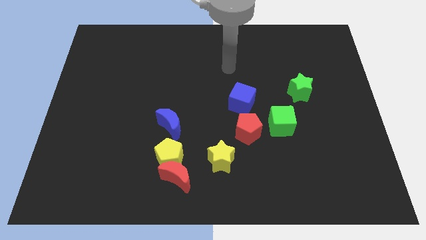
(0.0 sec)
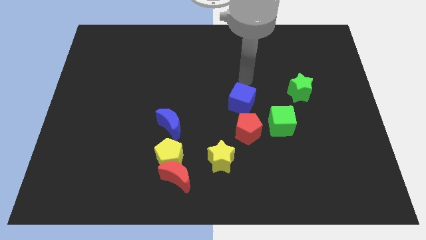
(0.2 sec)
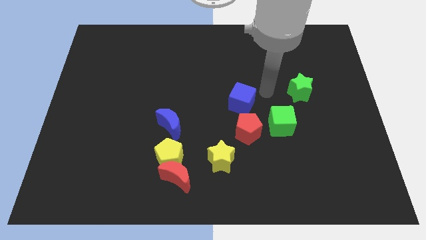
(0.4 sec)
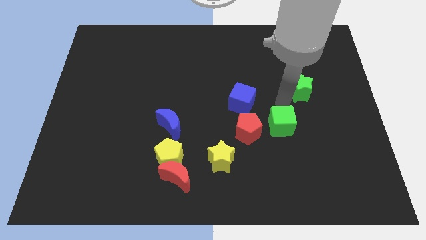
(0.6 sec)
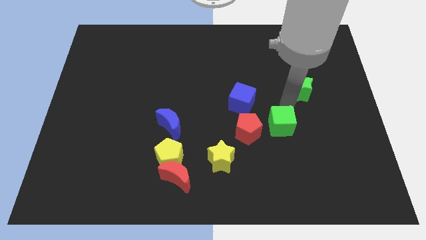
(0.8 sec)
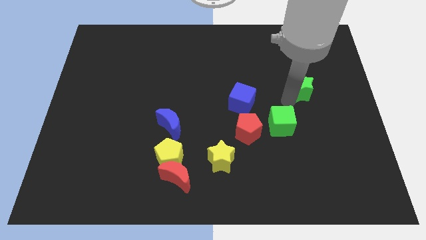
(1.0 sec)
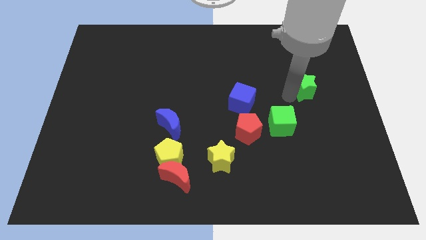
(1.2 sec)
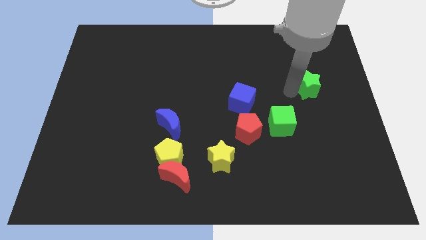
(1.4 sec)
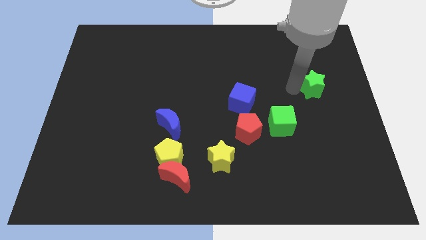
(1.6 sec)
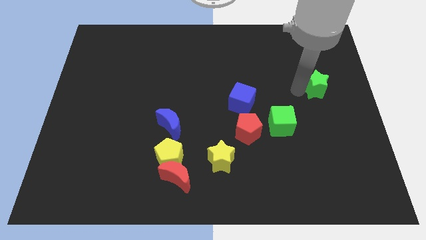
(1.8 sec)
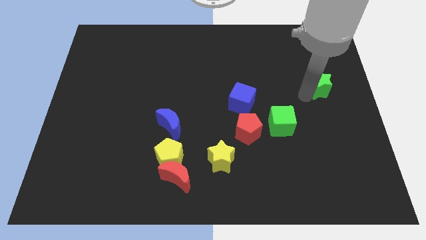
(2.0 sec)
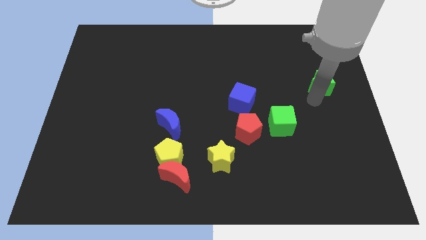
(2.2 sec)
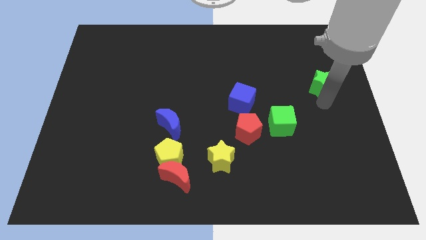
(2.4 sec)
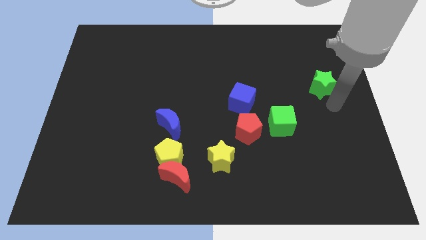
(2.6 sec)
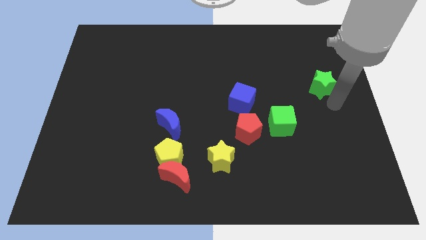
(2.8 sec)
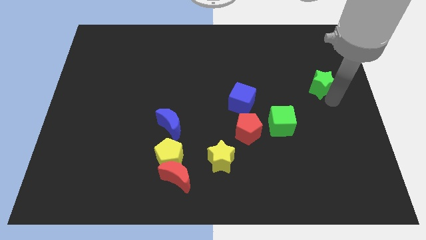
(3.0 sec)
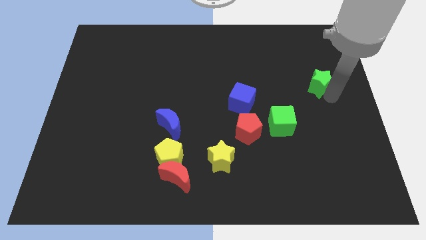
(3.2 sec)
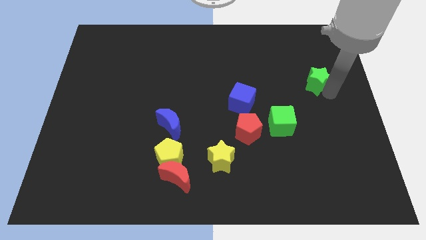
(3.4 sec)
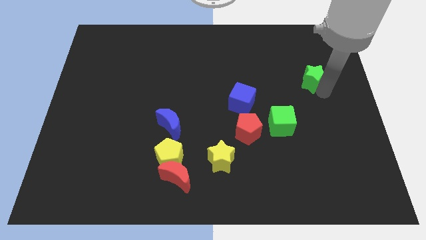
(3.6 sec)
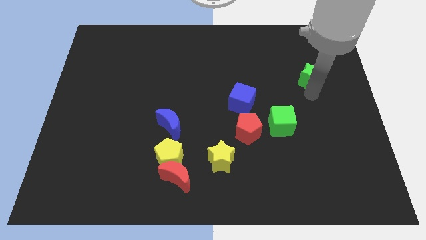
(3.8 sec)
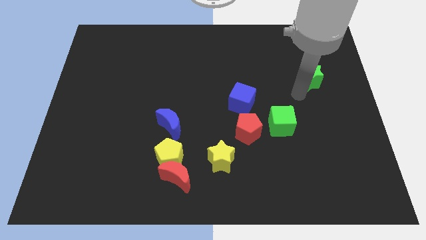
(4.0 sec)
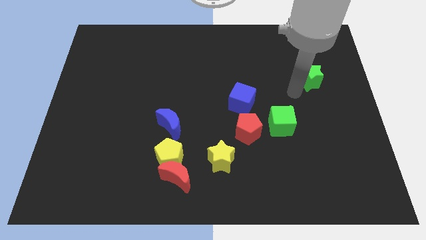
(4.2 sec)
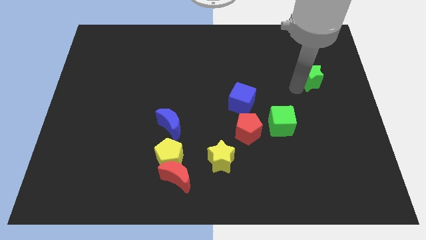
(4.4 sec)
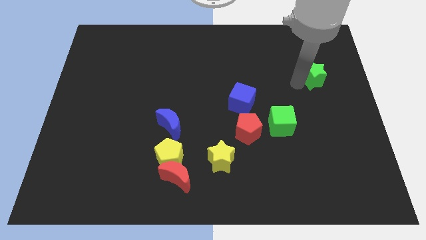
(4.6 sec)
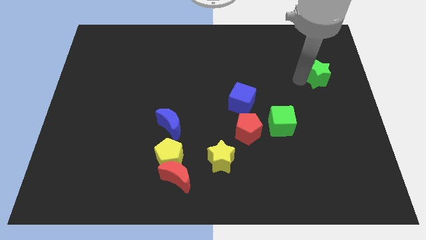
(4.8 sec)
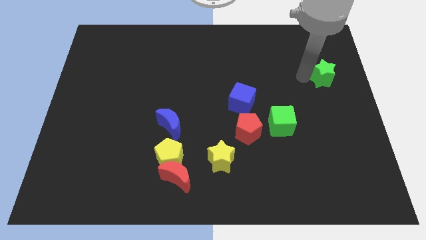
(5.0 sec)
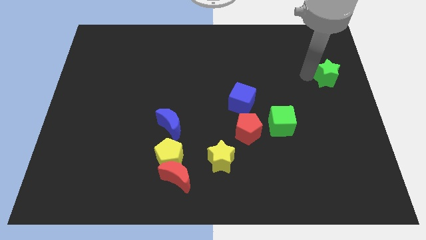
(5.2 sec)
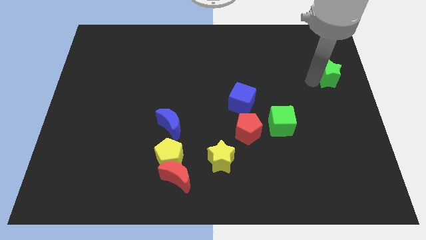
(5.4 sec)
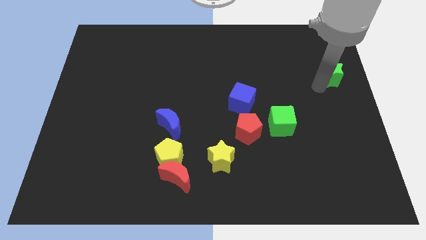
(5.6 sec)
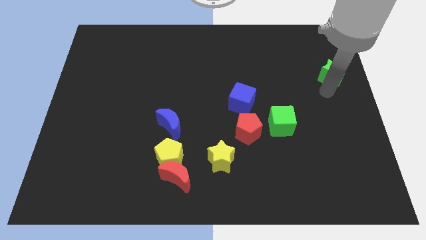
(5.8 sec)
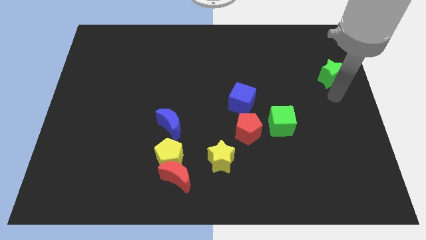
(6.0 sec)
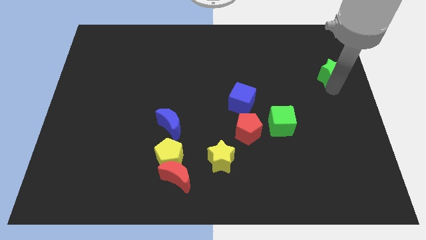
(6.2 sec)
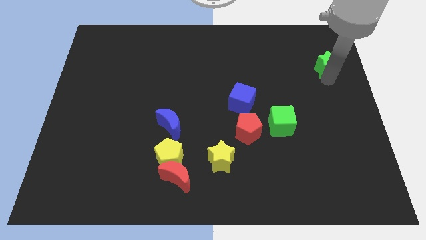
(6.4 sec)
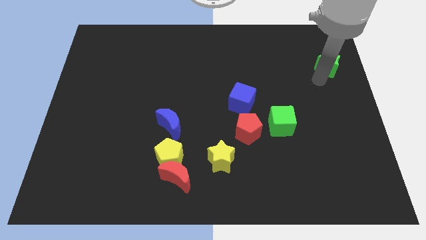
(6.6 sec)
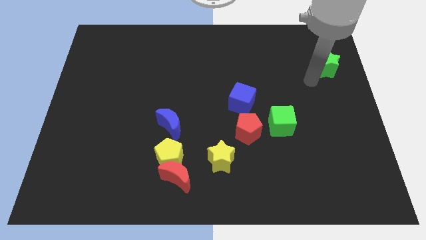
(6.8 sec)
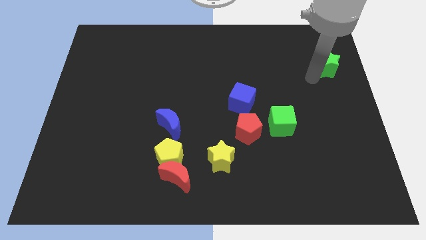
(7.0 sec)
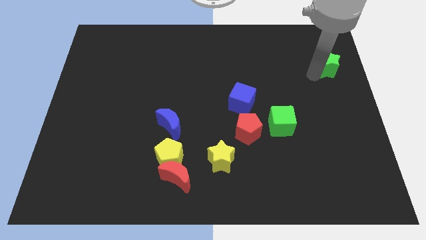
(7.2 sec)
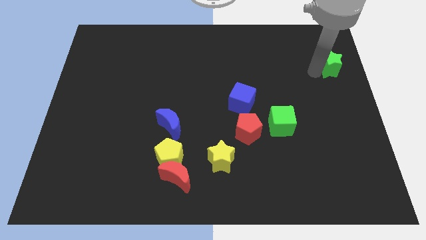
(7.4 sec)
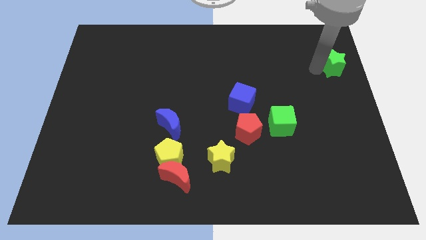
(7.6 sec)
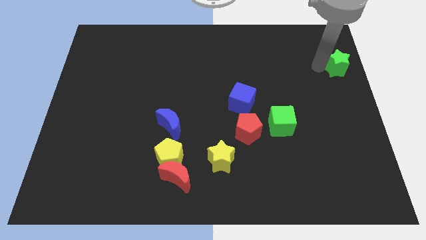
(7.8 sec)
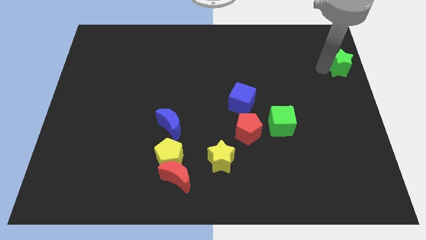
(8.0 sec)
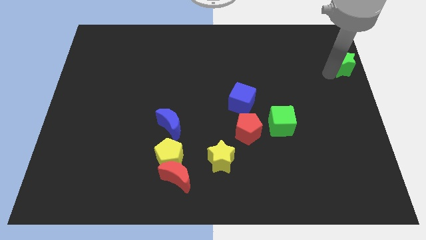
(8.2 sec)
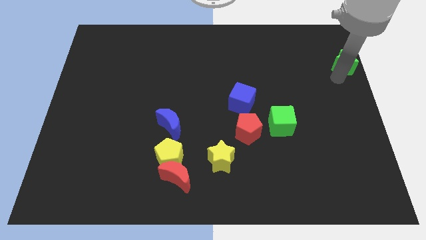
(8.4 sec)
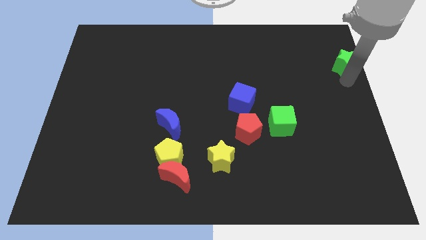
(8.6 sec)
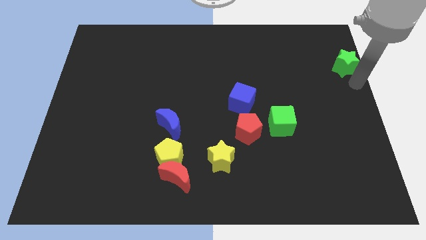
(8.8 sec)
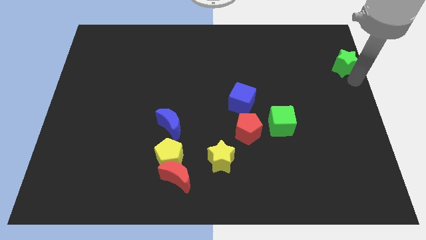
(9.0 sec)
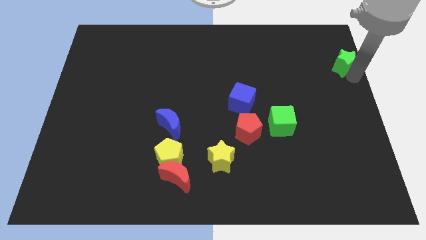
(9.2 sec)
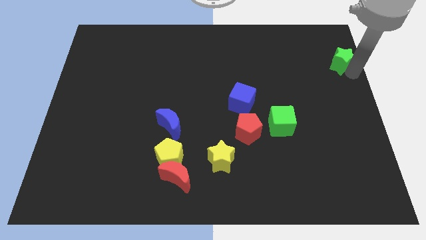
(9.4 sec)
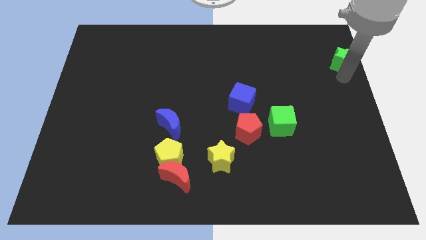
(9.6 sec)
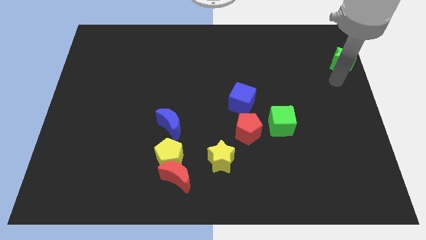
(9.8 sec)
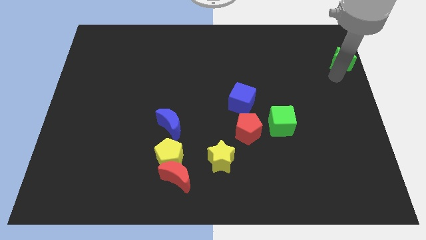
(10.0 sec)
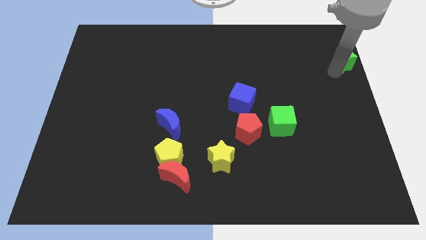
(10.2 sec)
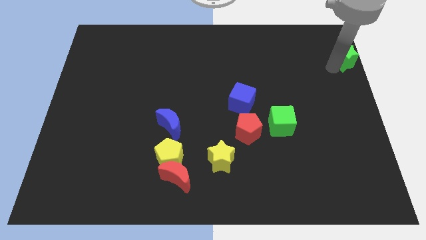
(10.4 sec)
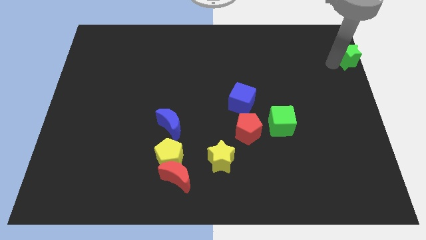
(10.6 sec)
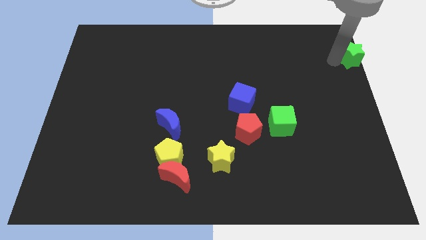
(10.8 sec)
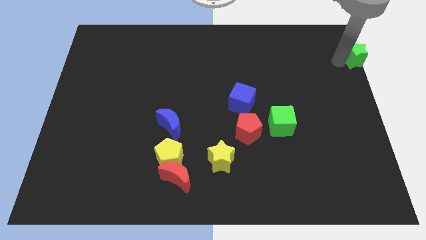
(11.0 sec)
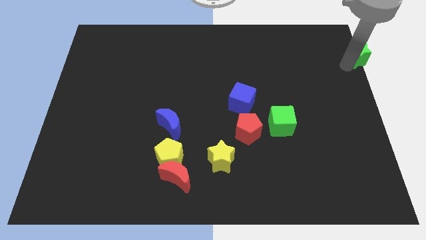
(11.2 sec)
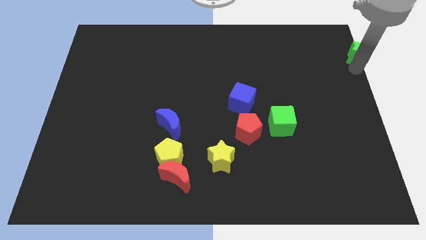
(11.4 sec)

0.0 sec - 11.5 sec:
move the green star to the top right corner

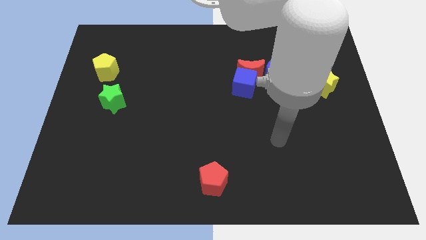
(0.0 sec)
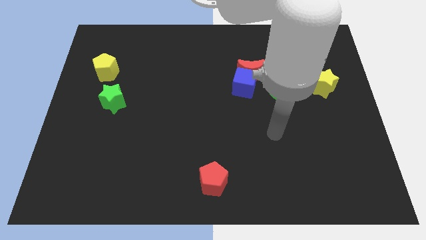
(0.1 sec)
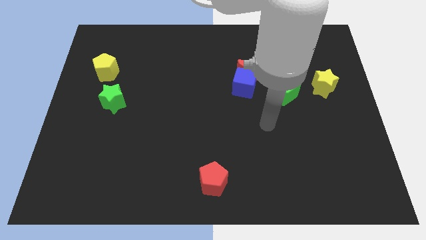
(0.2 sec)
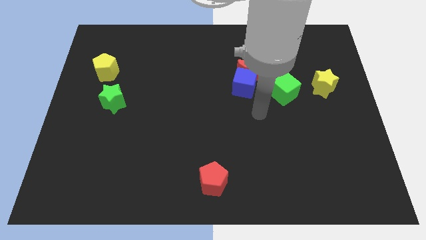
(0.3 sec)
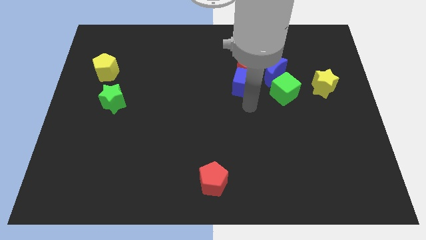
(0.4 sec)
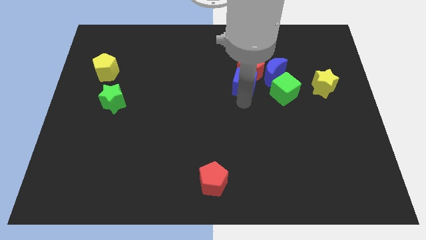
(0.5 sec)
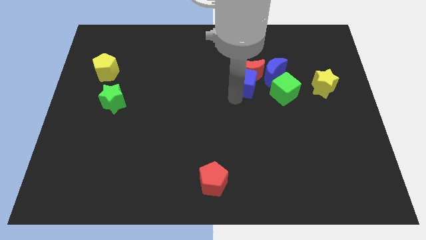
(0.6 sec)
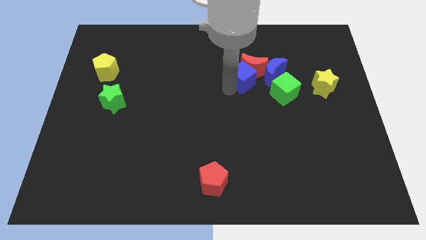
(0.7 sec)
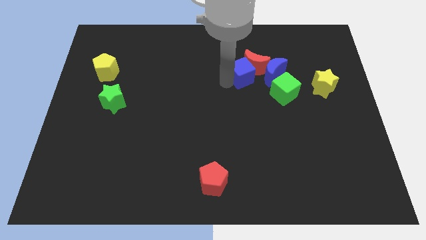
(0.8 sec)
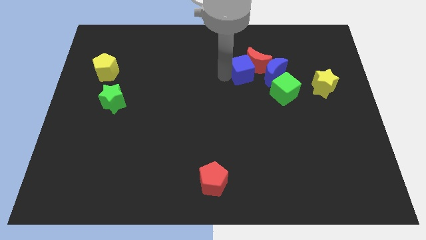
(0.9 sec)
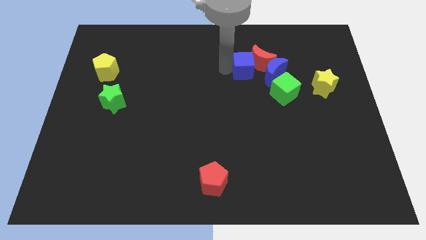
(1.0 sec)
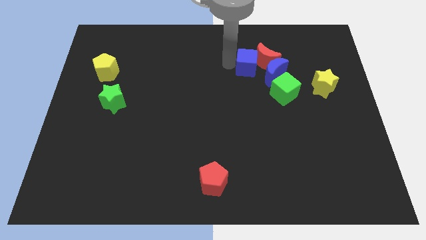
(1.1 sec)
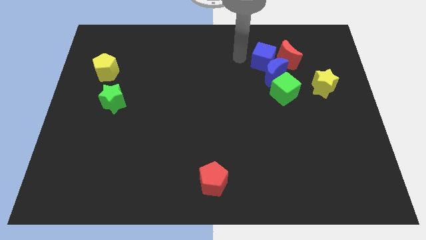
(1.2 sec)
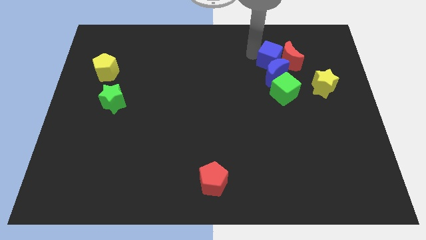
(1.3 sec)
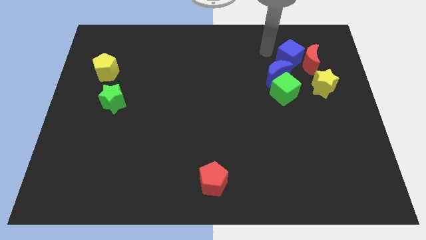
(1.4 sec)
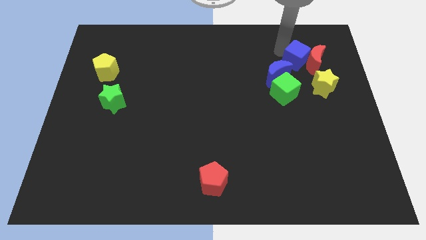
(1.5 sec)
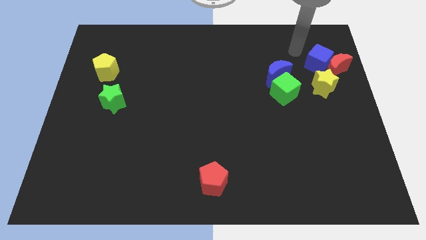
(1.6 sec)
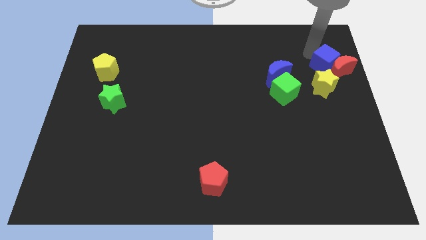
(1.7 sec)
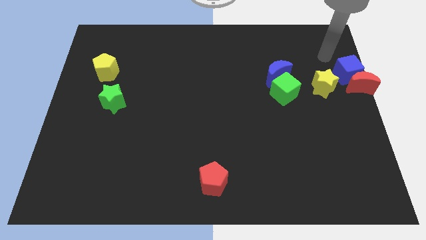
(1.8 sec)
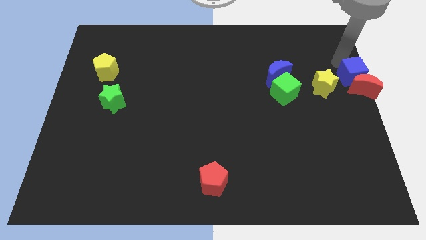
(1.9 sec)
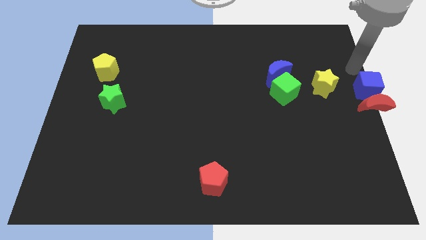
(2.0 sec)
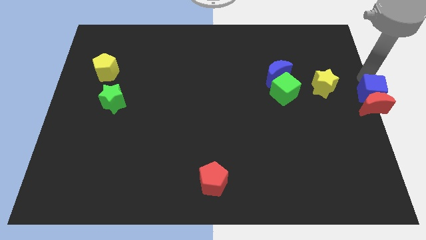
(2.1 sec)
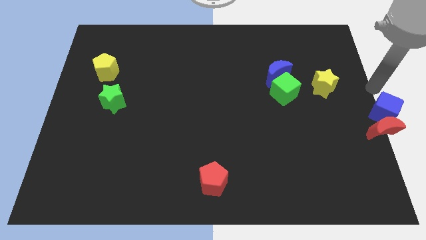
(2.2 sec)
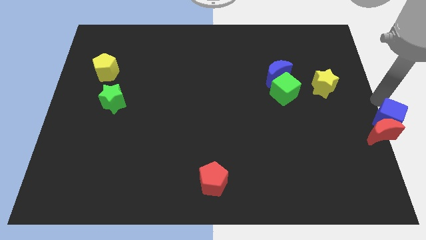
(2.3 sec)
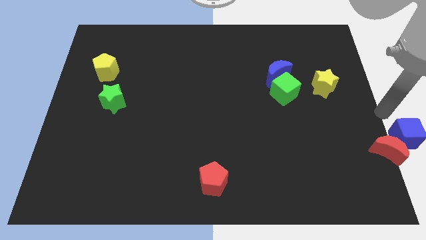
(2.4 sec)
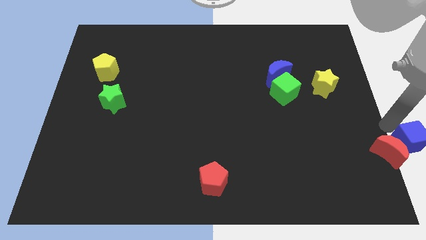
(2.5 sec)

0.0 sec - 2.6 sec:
push the red moon to the bottom right
